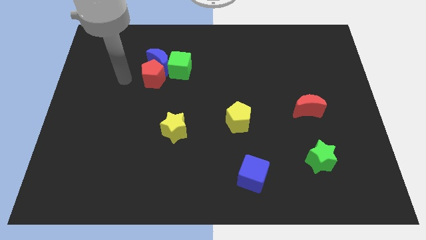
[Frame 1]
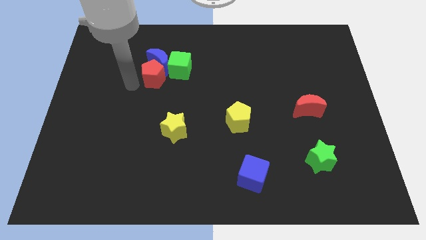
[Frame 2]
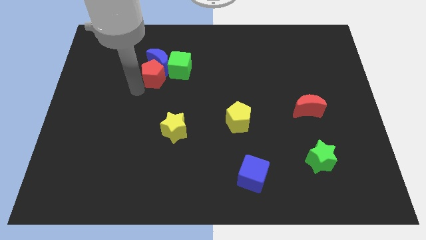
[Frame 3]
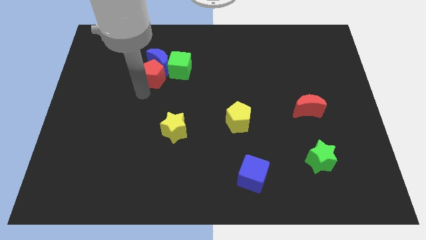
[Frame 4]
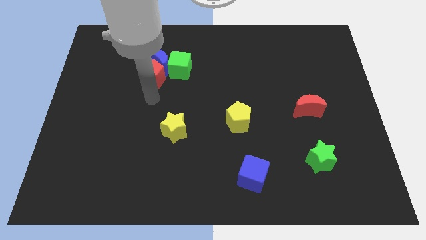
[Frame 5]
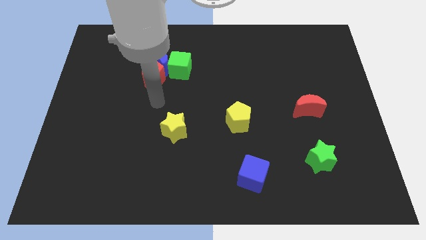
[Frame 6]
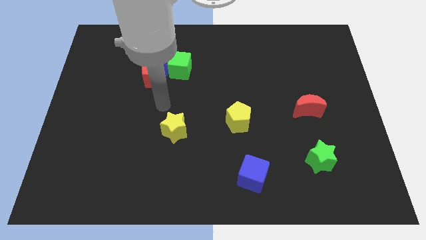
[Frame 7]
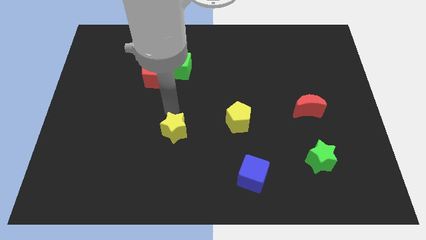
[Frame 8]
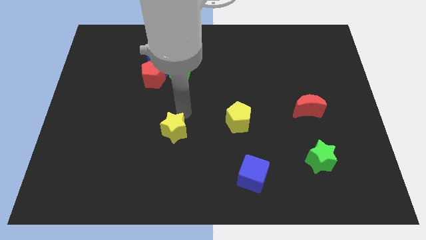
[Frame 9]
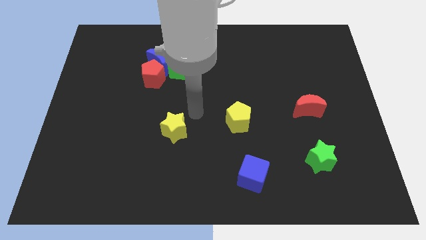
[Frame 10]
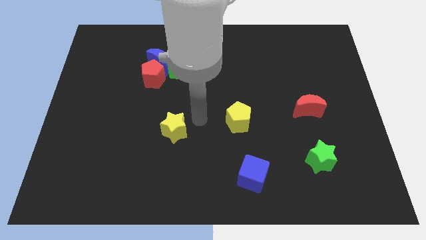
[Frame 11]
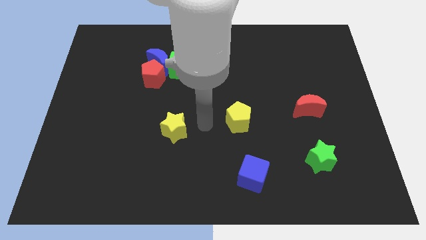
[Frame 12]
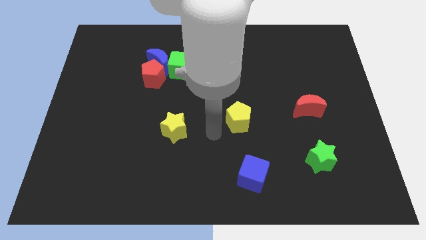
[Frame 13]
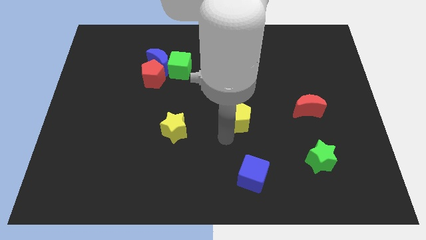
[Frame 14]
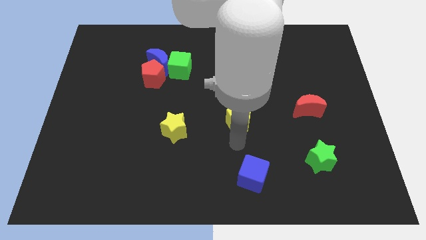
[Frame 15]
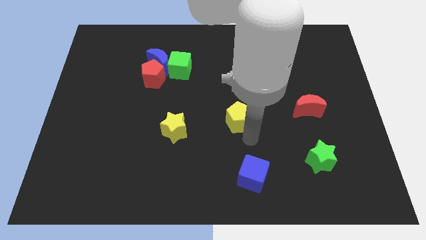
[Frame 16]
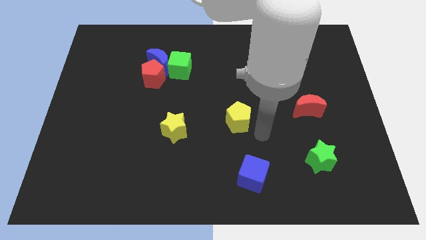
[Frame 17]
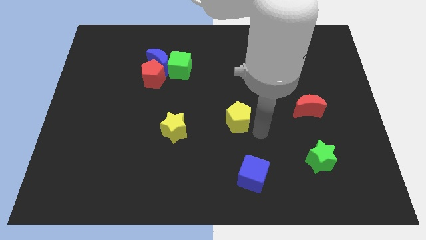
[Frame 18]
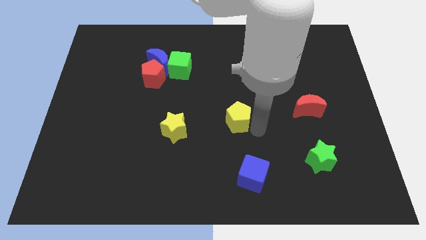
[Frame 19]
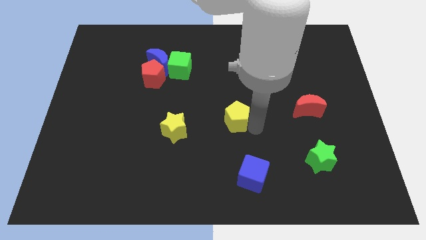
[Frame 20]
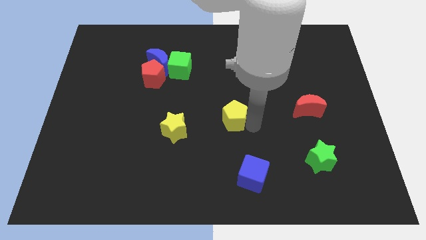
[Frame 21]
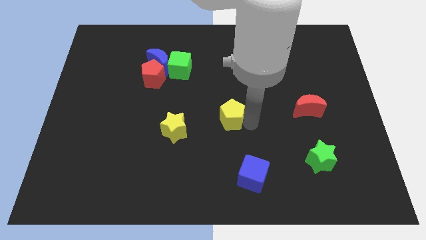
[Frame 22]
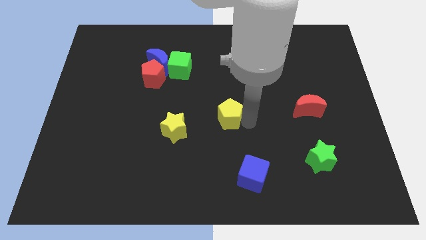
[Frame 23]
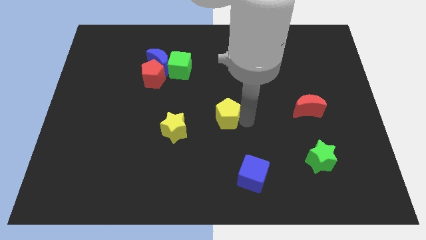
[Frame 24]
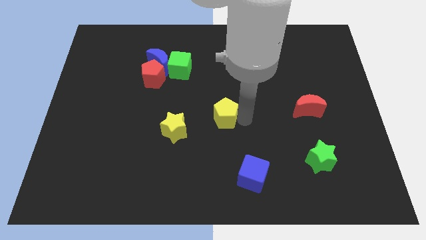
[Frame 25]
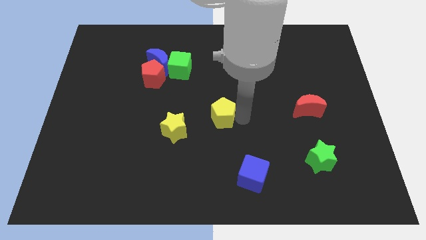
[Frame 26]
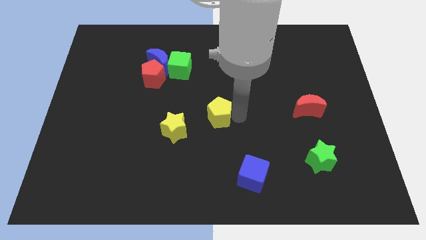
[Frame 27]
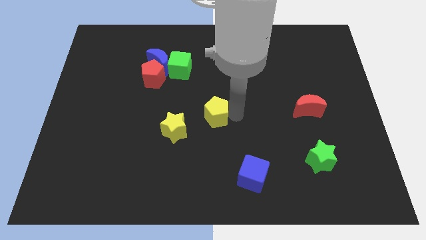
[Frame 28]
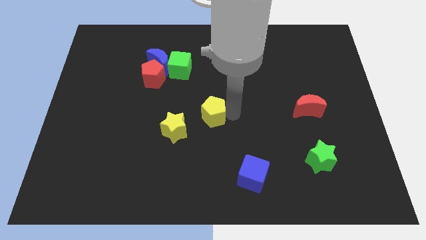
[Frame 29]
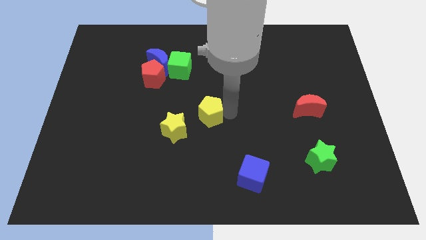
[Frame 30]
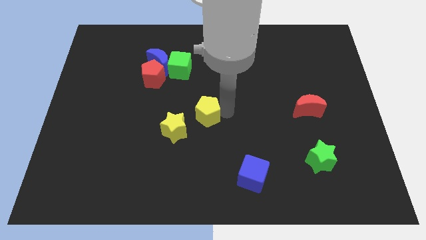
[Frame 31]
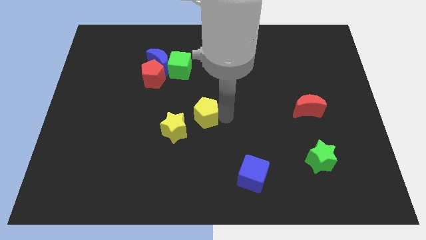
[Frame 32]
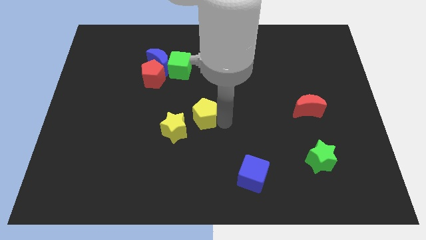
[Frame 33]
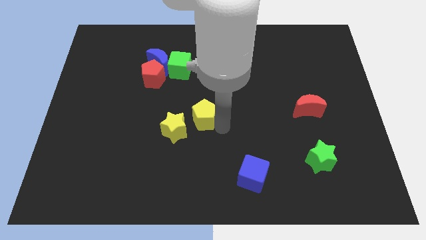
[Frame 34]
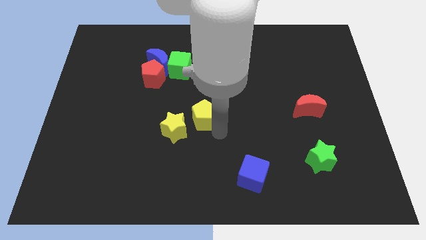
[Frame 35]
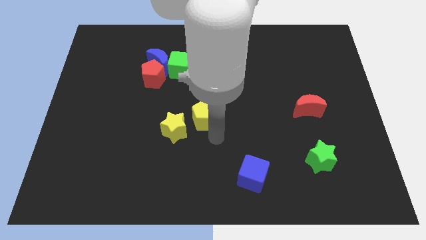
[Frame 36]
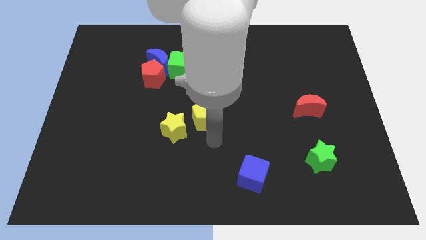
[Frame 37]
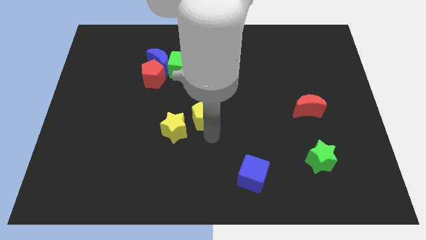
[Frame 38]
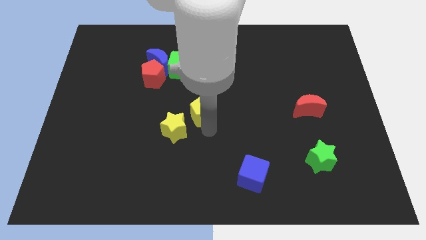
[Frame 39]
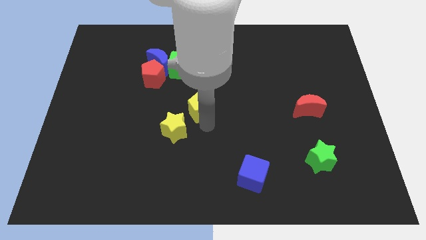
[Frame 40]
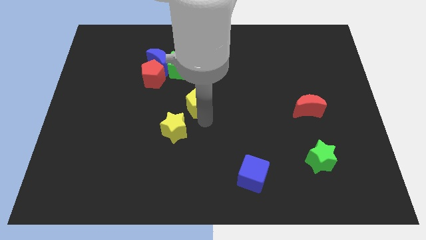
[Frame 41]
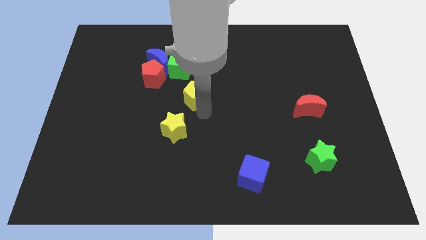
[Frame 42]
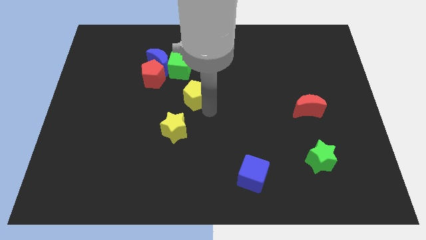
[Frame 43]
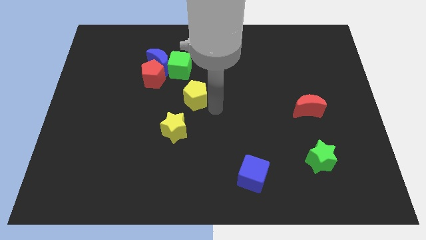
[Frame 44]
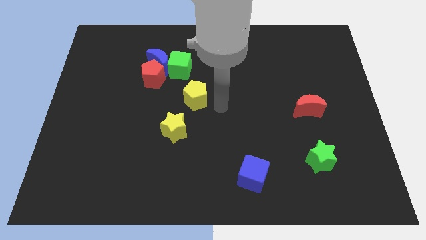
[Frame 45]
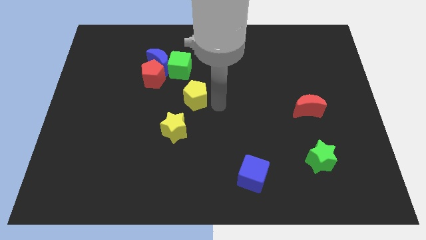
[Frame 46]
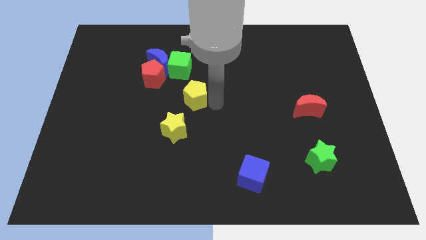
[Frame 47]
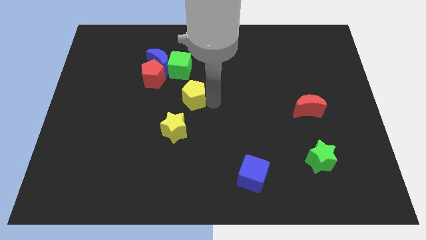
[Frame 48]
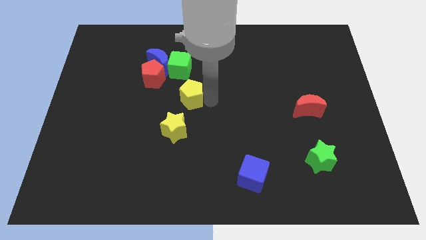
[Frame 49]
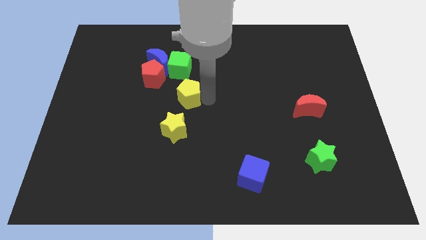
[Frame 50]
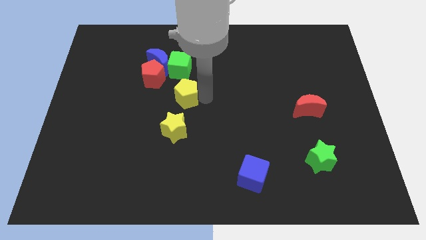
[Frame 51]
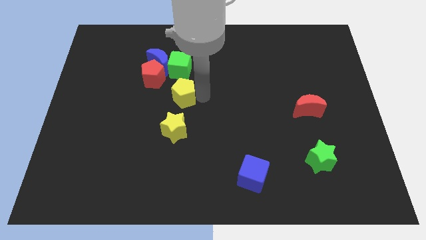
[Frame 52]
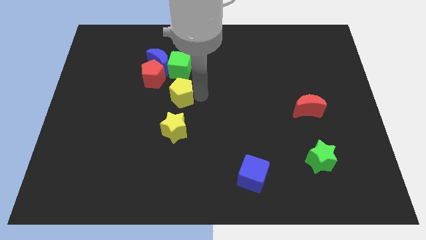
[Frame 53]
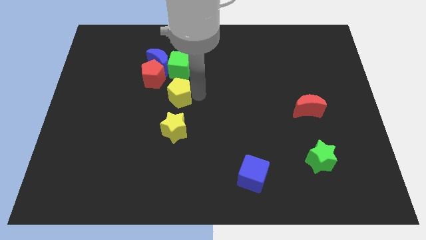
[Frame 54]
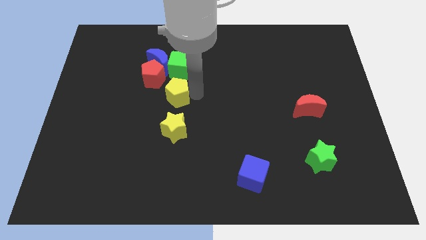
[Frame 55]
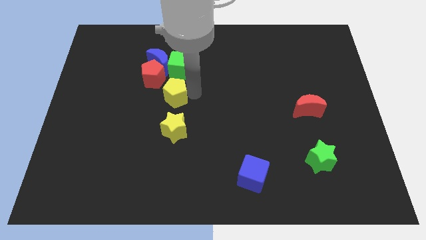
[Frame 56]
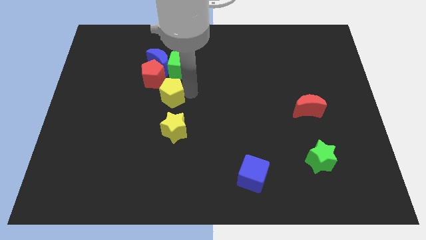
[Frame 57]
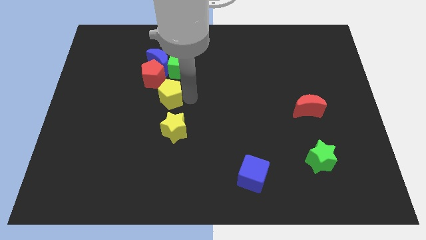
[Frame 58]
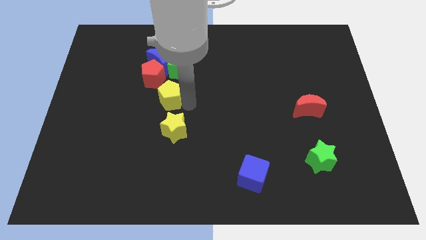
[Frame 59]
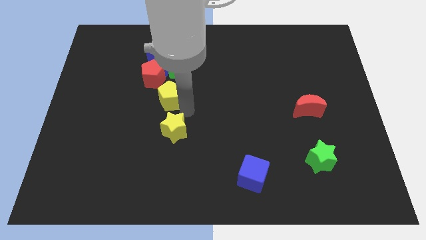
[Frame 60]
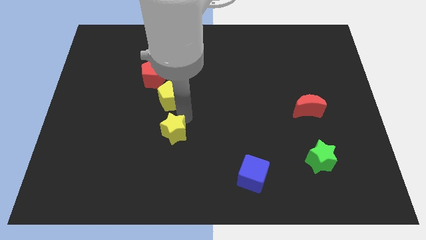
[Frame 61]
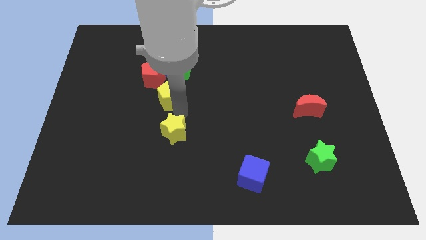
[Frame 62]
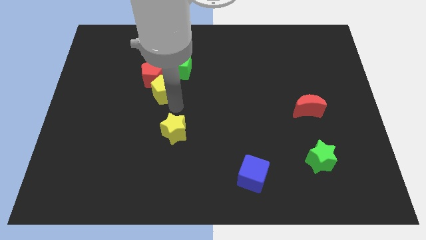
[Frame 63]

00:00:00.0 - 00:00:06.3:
slide the yellow pentagon to the red pentagon

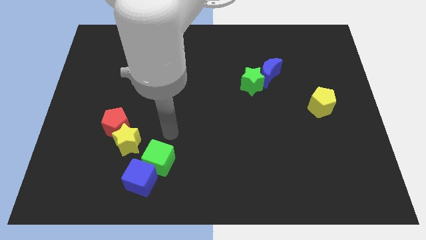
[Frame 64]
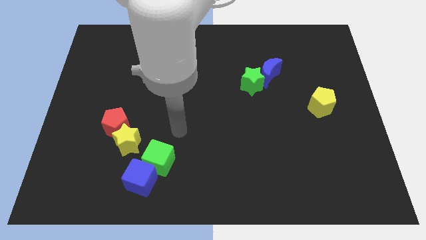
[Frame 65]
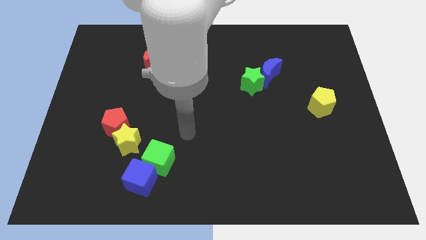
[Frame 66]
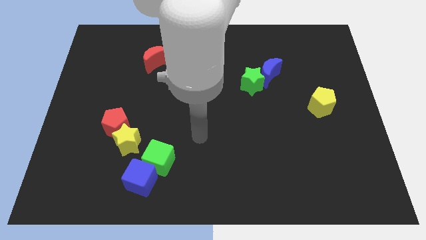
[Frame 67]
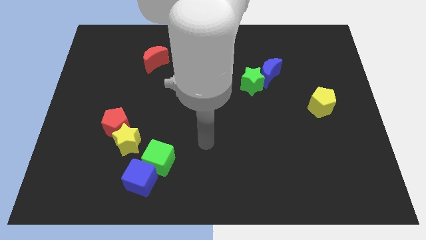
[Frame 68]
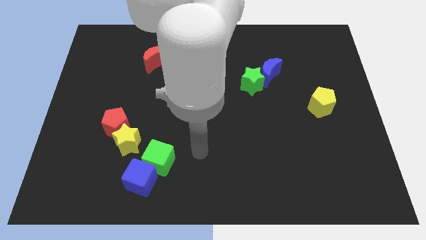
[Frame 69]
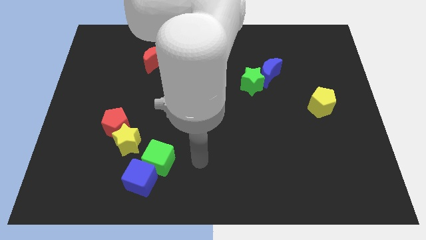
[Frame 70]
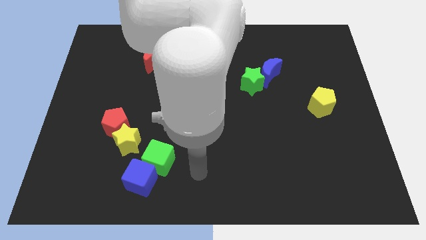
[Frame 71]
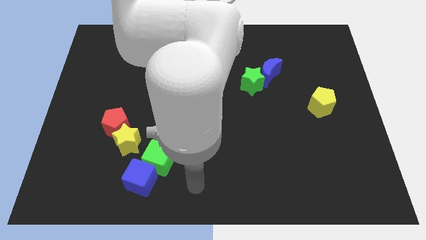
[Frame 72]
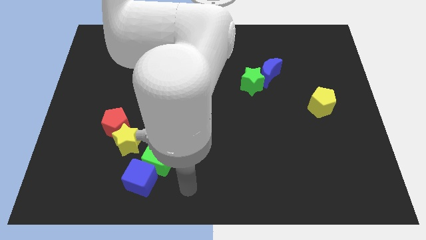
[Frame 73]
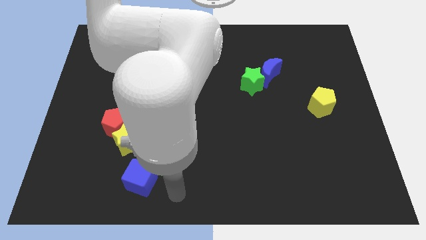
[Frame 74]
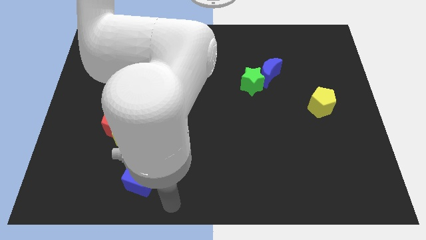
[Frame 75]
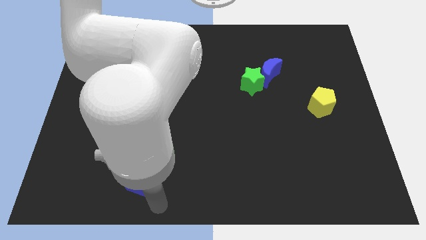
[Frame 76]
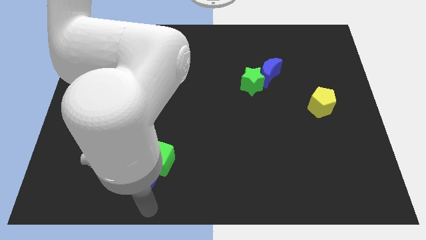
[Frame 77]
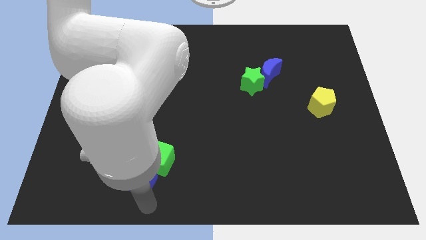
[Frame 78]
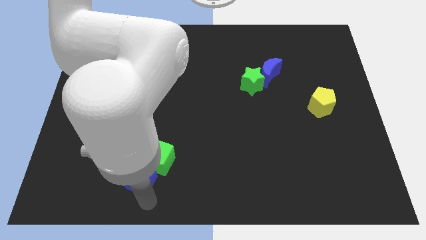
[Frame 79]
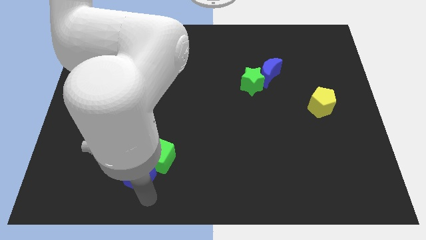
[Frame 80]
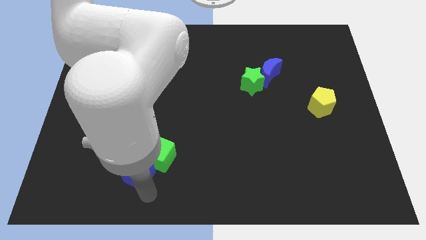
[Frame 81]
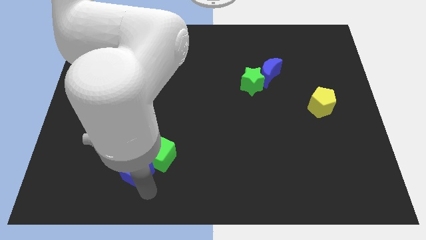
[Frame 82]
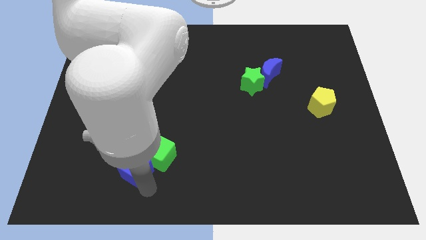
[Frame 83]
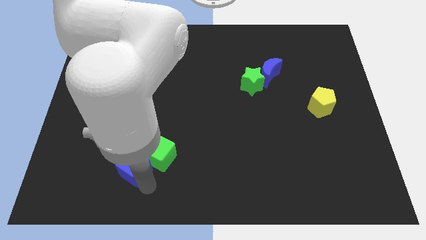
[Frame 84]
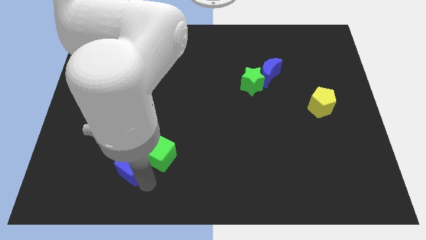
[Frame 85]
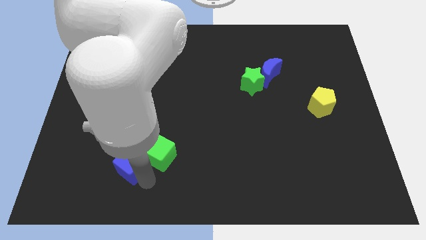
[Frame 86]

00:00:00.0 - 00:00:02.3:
slide the blue cube to the yellow star
